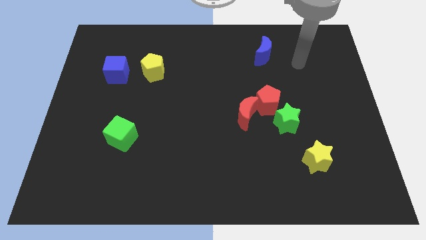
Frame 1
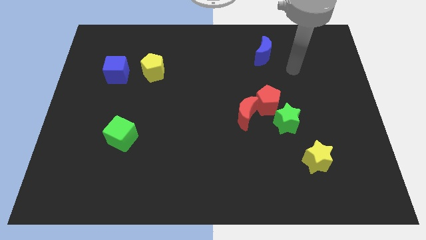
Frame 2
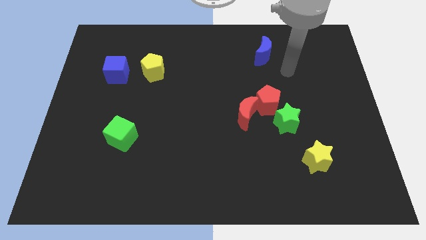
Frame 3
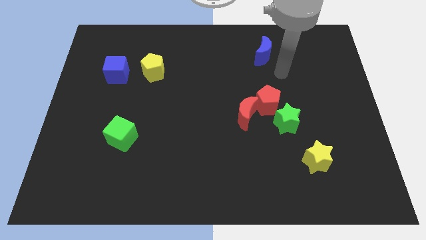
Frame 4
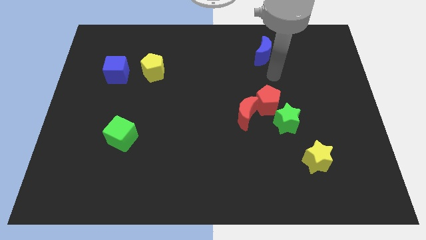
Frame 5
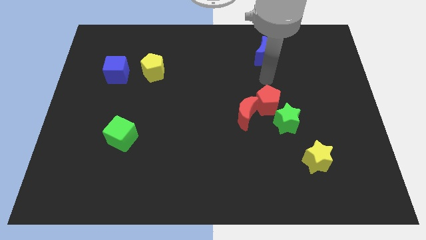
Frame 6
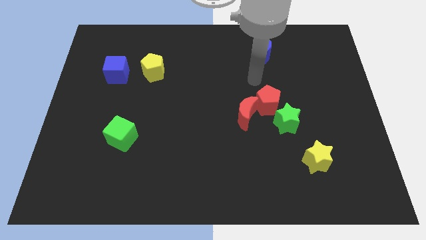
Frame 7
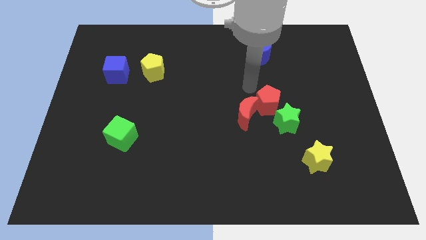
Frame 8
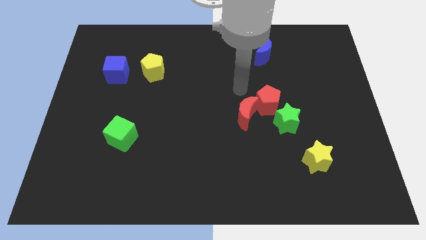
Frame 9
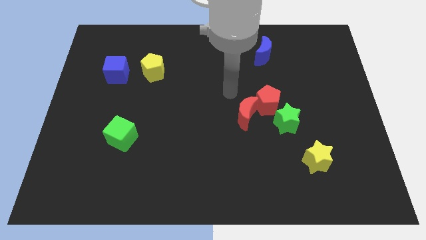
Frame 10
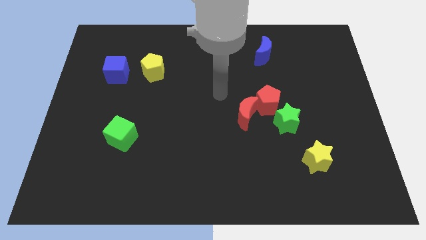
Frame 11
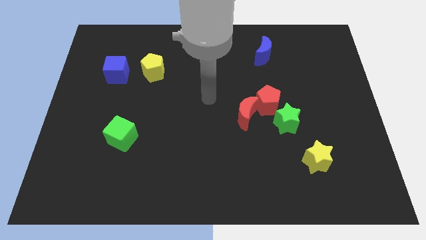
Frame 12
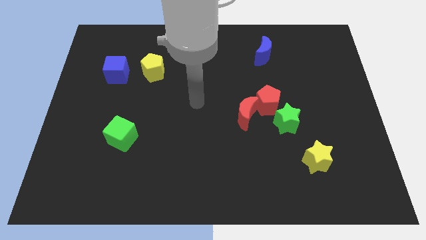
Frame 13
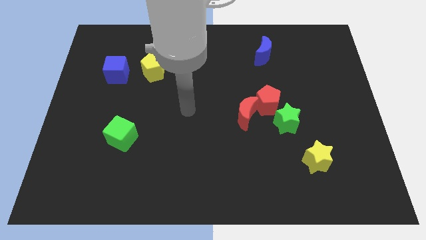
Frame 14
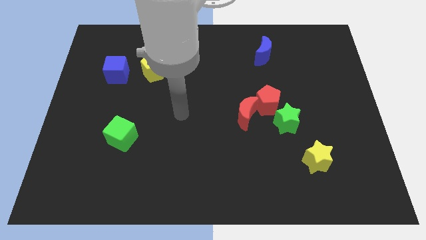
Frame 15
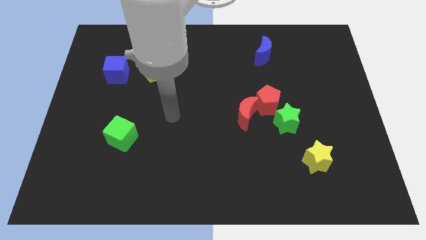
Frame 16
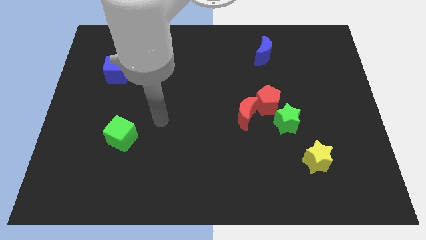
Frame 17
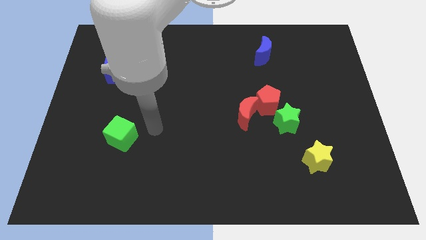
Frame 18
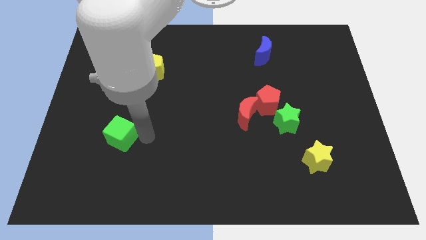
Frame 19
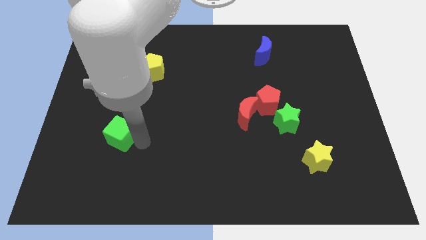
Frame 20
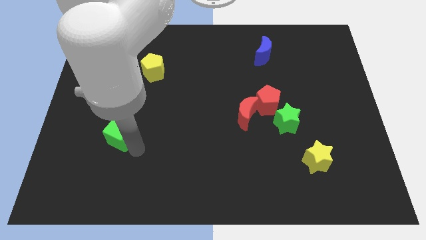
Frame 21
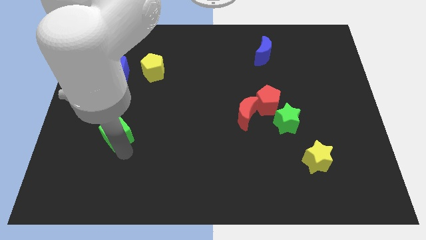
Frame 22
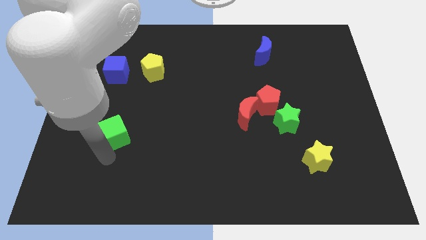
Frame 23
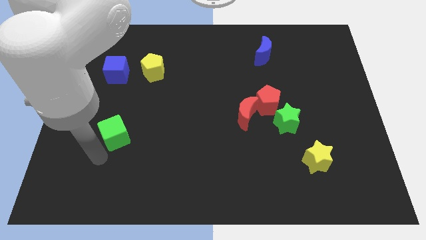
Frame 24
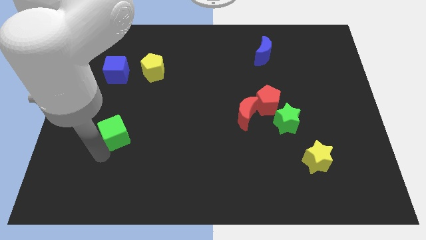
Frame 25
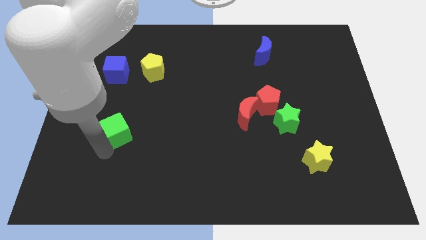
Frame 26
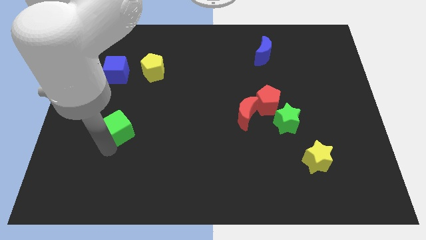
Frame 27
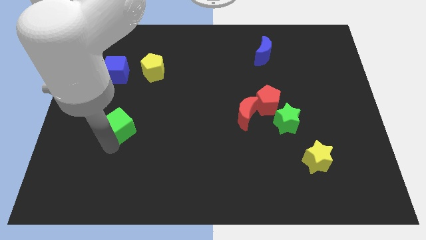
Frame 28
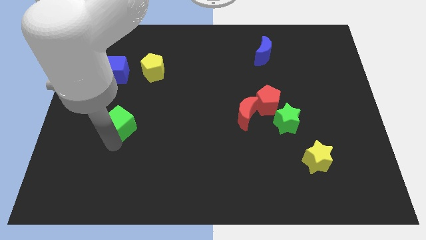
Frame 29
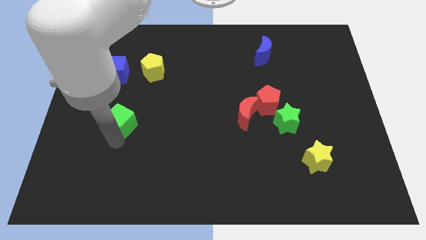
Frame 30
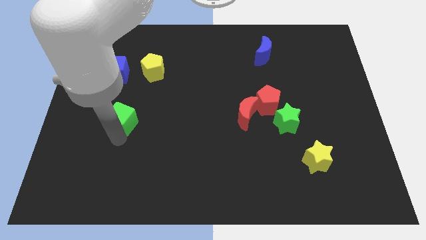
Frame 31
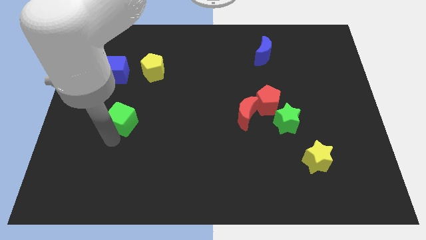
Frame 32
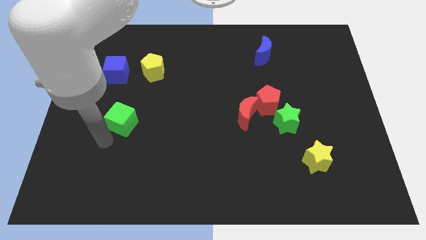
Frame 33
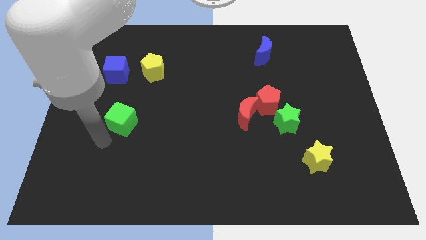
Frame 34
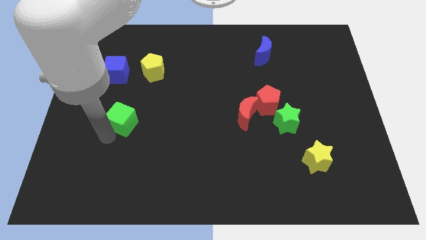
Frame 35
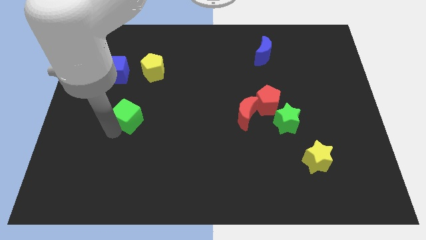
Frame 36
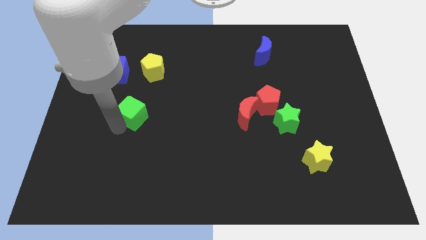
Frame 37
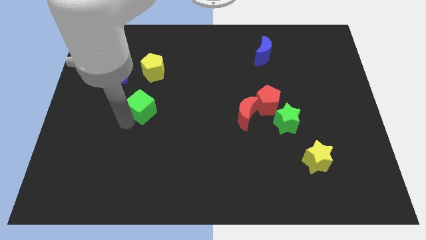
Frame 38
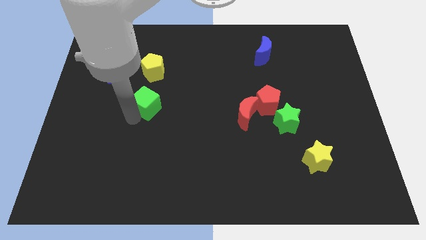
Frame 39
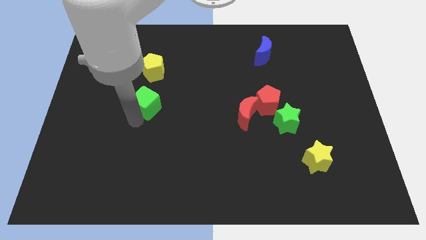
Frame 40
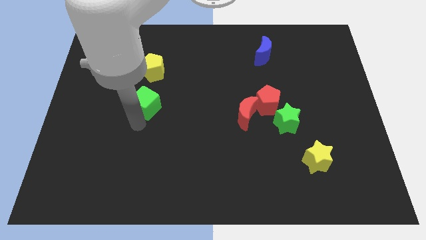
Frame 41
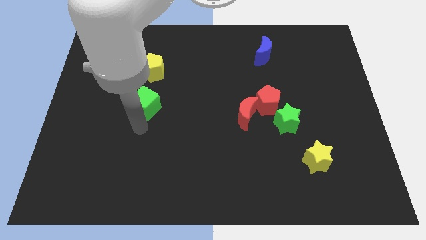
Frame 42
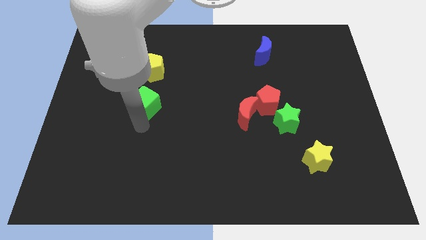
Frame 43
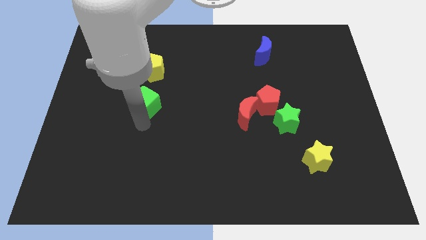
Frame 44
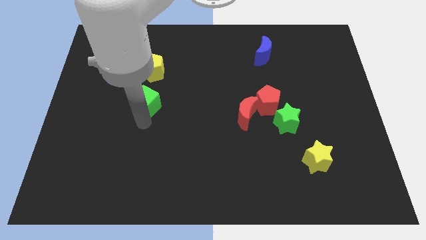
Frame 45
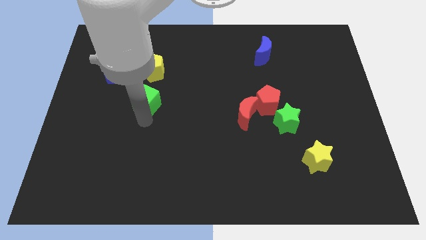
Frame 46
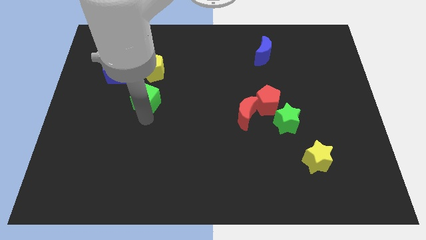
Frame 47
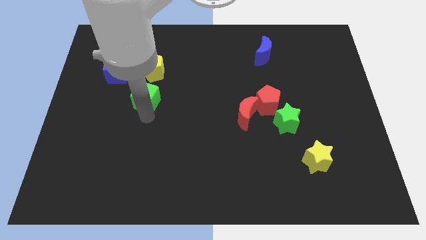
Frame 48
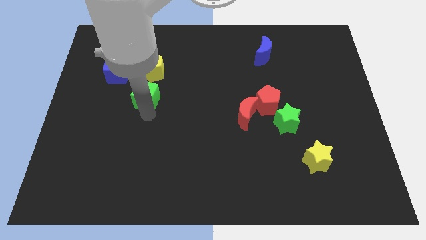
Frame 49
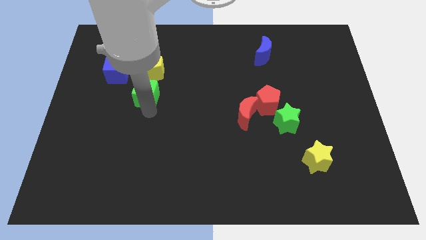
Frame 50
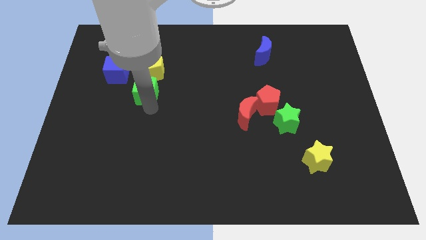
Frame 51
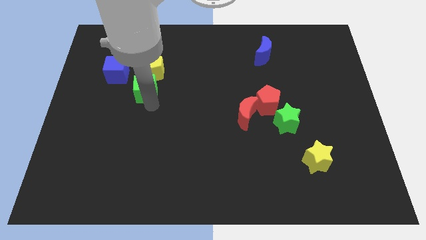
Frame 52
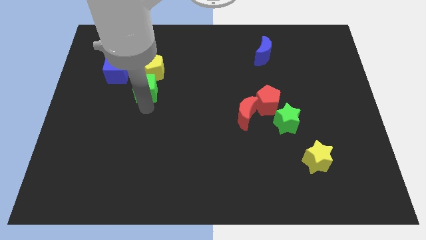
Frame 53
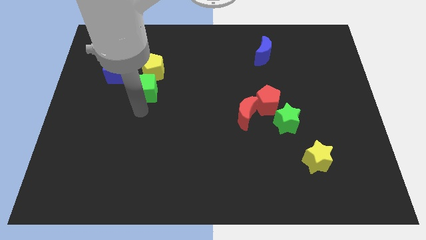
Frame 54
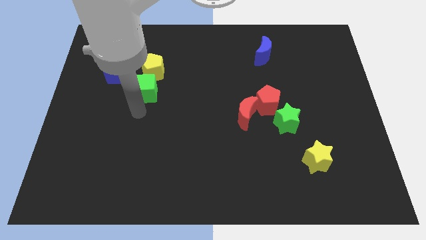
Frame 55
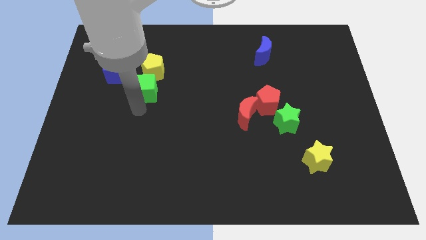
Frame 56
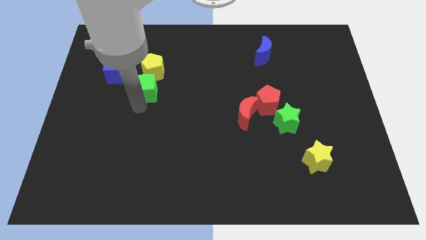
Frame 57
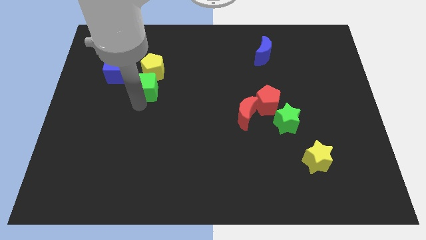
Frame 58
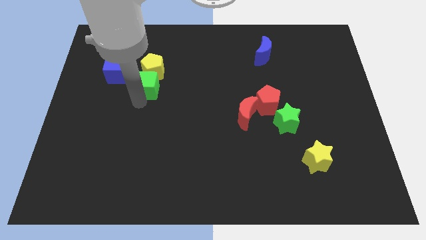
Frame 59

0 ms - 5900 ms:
move the green cube close to the yellow pentagon

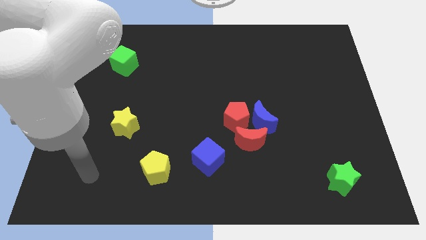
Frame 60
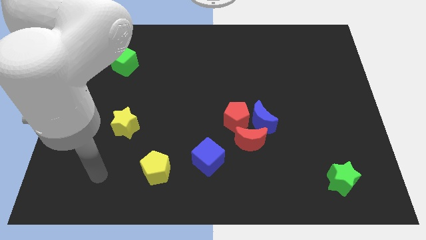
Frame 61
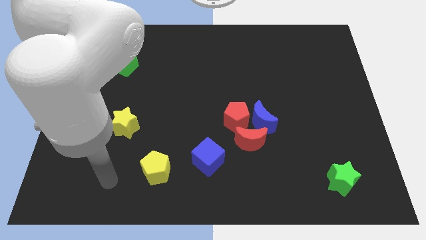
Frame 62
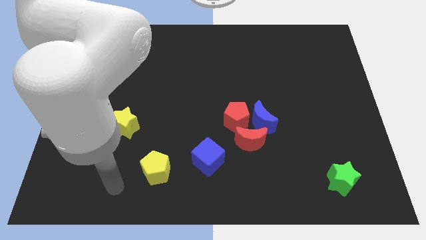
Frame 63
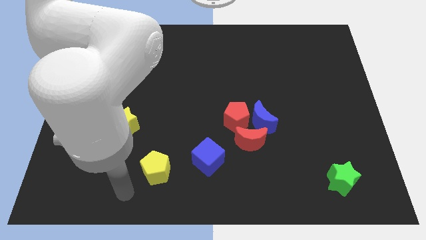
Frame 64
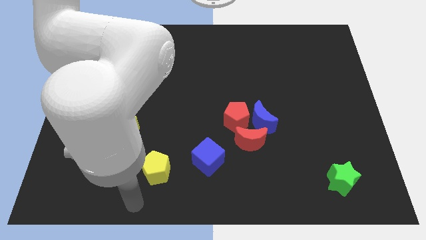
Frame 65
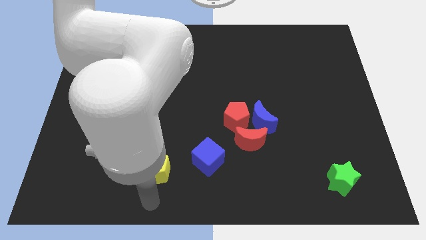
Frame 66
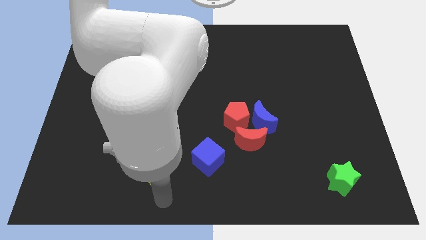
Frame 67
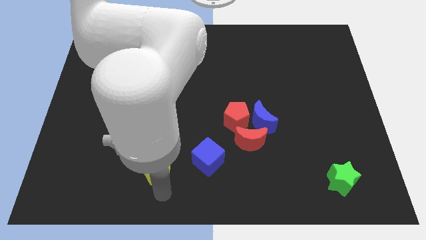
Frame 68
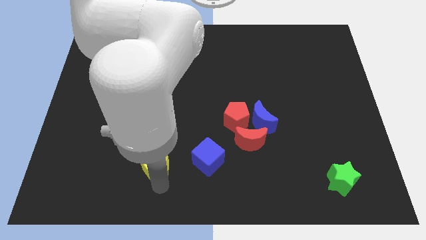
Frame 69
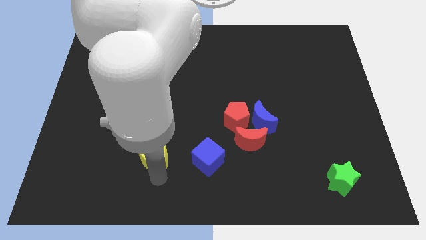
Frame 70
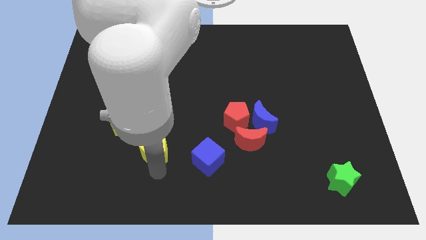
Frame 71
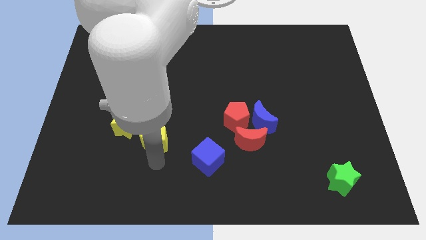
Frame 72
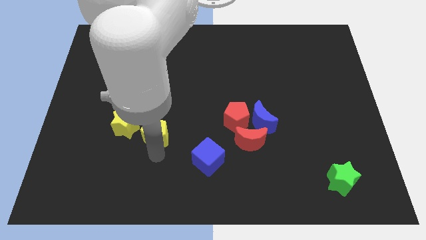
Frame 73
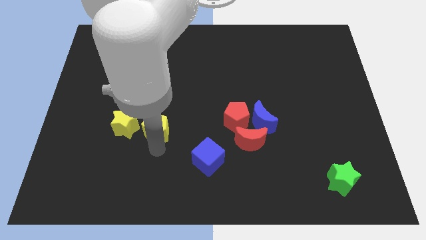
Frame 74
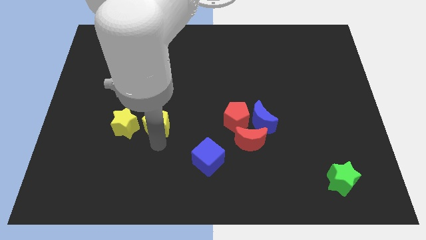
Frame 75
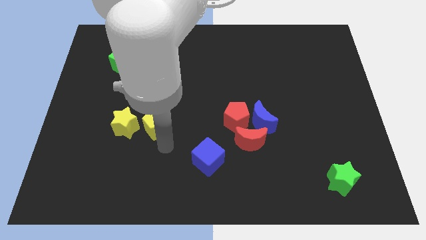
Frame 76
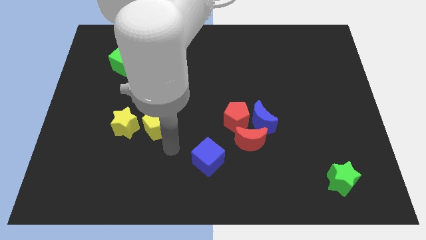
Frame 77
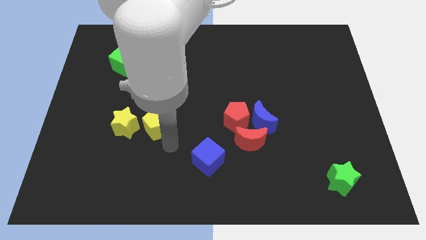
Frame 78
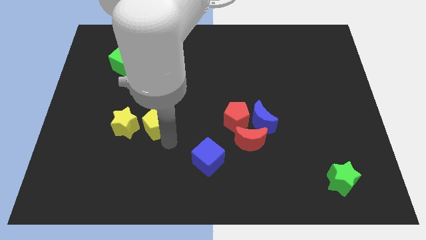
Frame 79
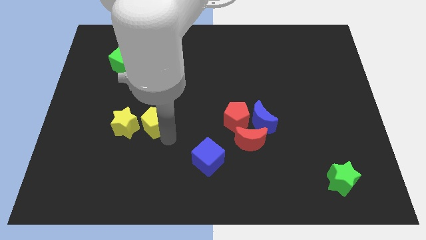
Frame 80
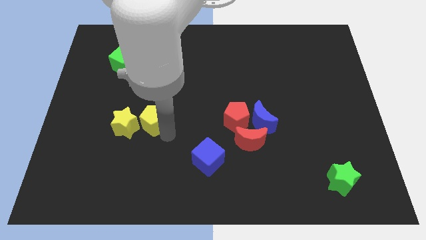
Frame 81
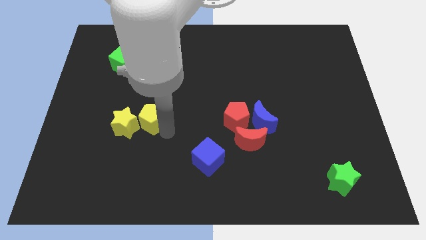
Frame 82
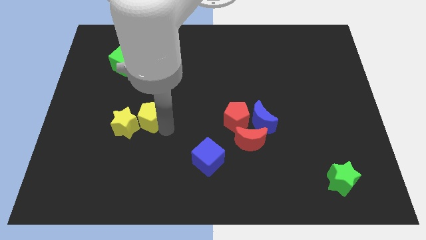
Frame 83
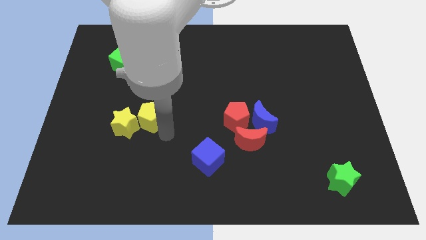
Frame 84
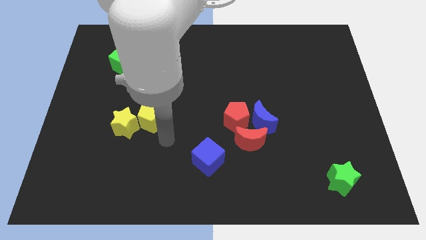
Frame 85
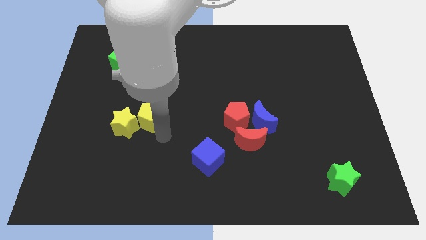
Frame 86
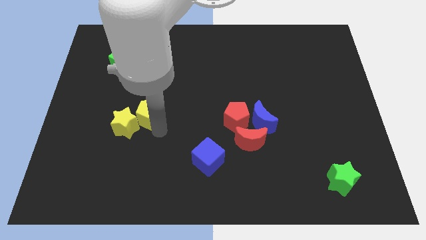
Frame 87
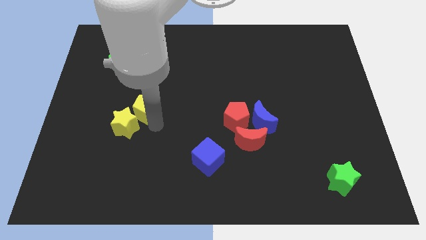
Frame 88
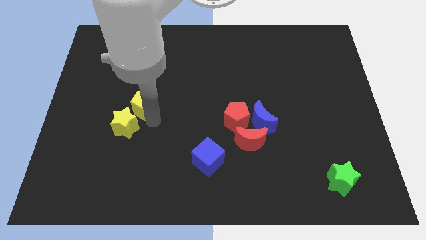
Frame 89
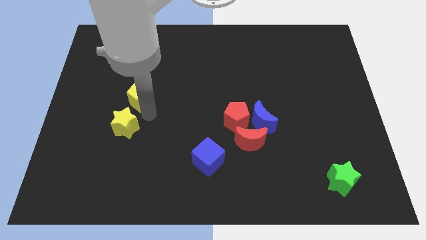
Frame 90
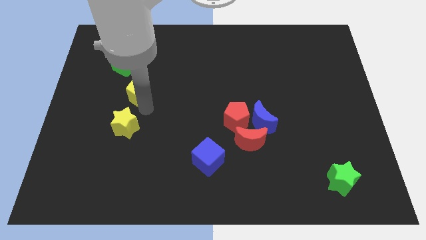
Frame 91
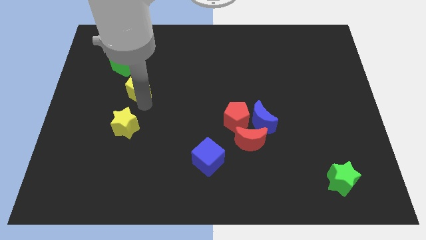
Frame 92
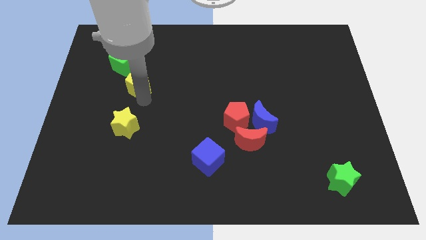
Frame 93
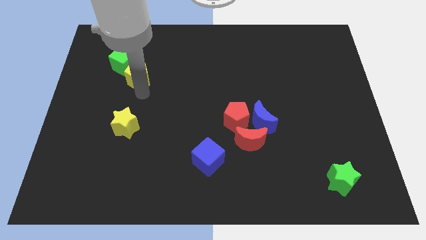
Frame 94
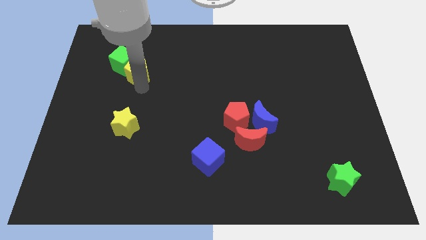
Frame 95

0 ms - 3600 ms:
put the yellow pentagon close to the green cube
